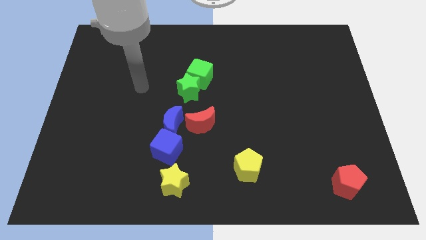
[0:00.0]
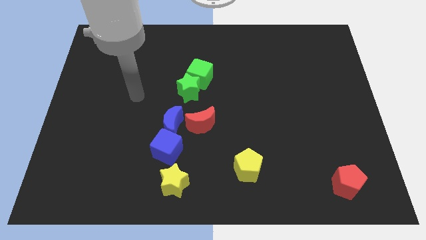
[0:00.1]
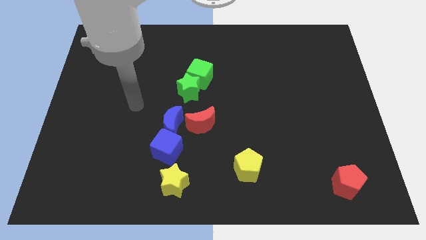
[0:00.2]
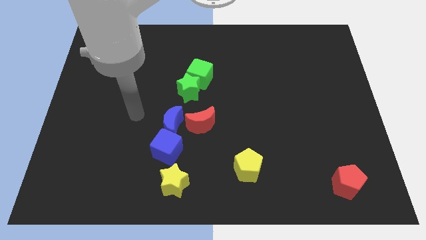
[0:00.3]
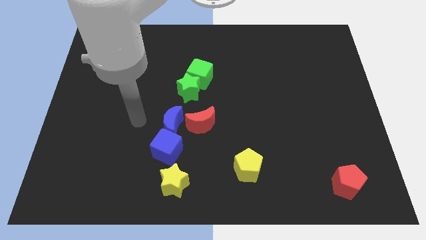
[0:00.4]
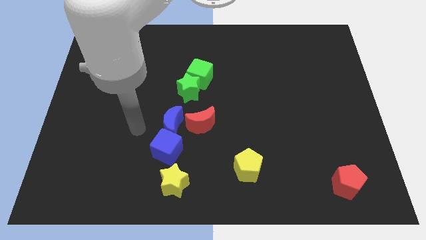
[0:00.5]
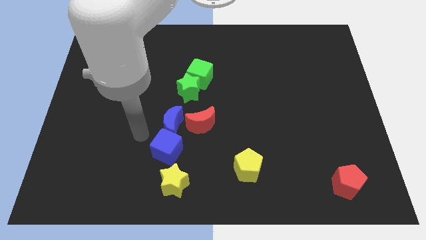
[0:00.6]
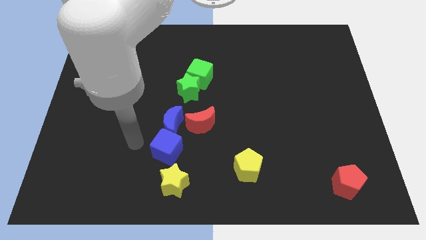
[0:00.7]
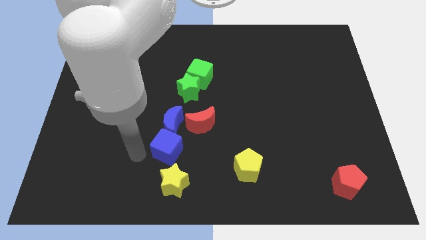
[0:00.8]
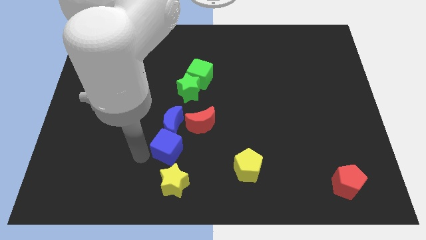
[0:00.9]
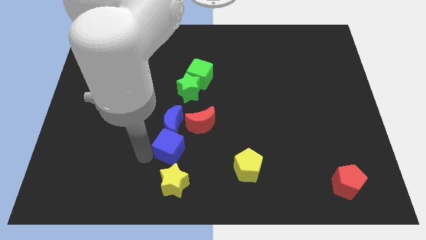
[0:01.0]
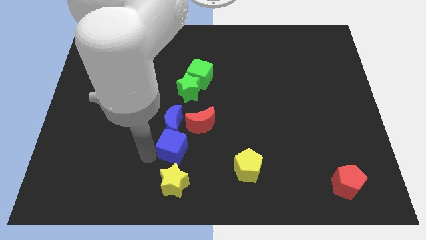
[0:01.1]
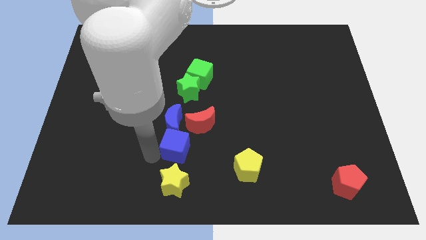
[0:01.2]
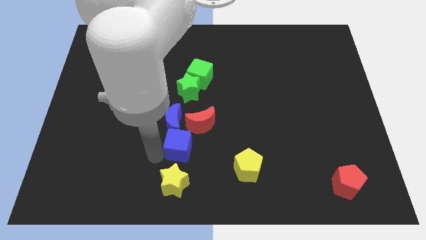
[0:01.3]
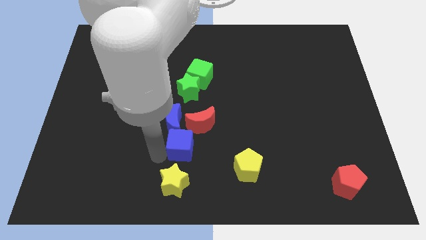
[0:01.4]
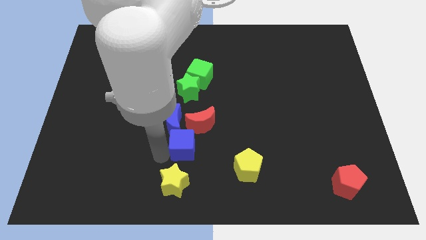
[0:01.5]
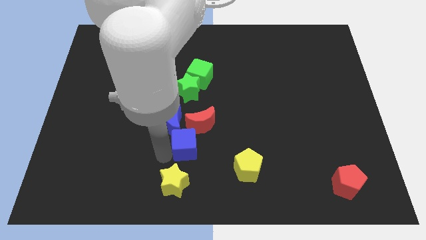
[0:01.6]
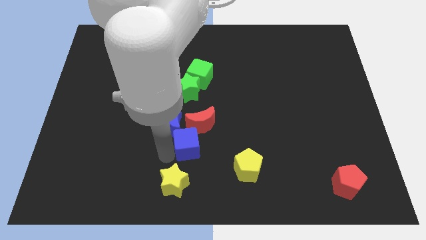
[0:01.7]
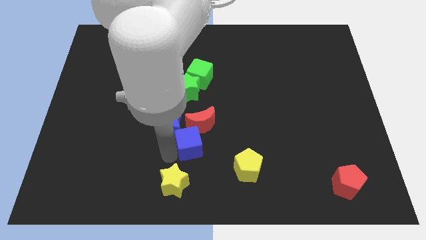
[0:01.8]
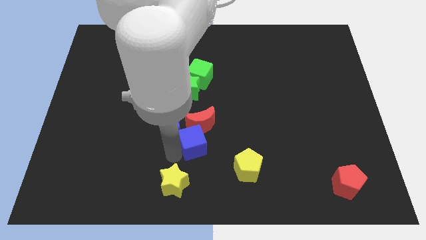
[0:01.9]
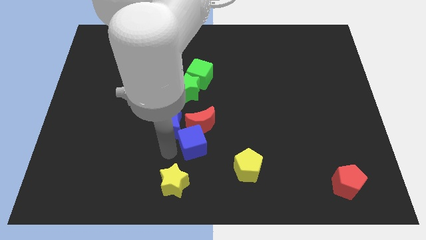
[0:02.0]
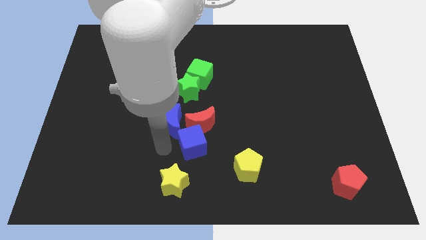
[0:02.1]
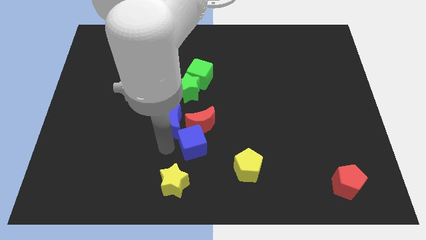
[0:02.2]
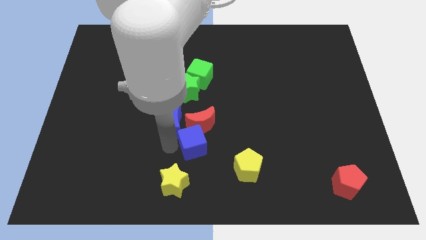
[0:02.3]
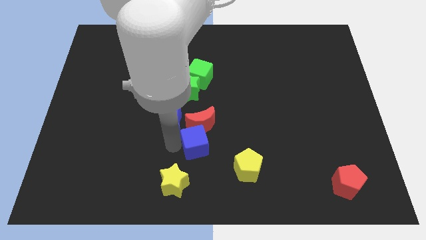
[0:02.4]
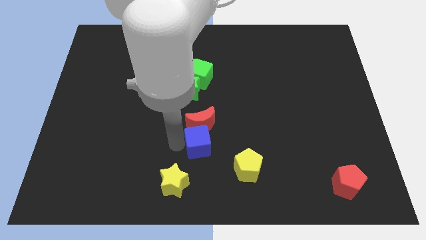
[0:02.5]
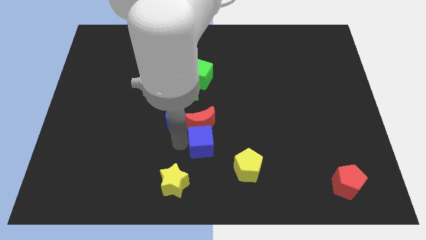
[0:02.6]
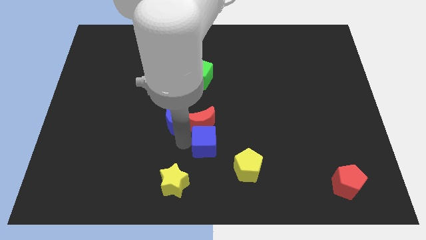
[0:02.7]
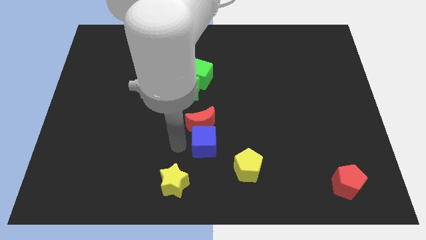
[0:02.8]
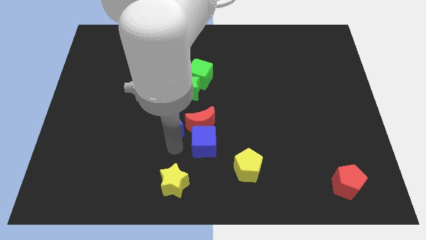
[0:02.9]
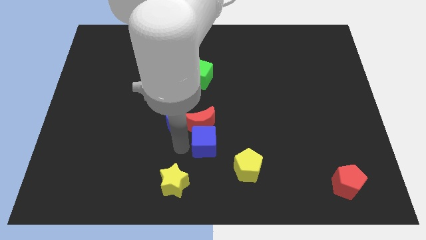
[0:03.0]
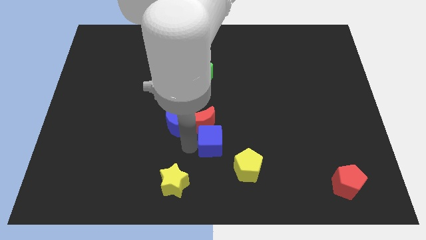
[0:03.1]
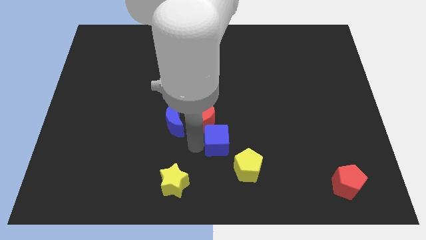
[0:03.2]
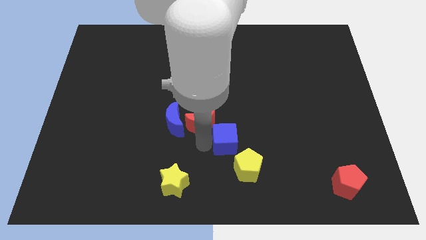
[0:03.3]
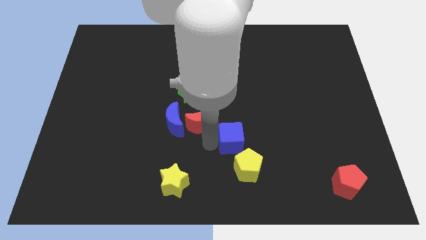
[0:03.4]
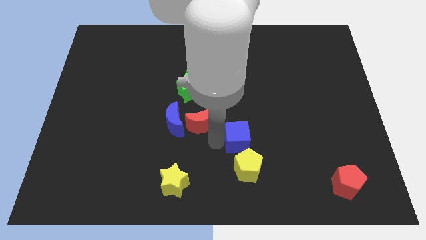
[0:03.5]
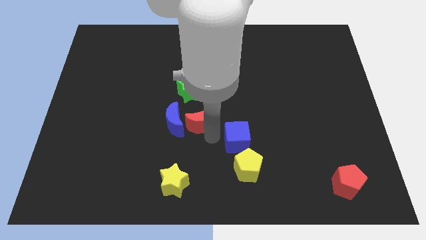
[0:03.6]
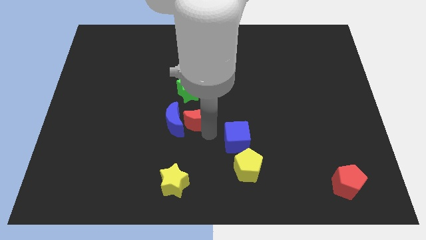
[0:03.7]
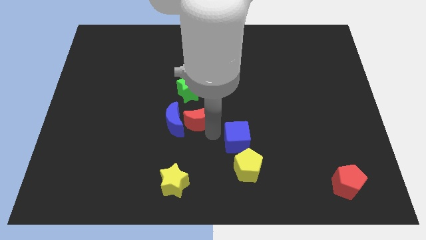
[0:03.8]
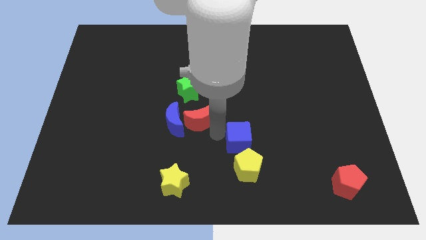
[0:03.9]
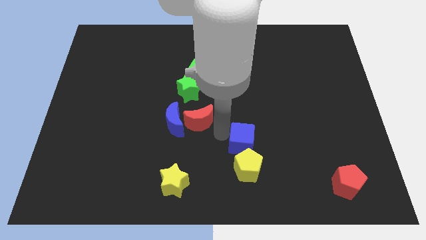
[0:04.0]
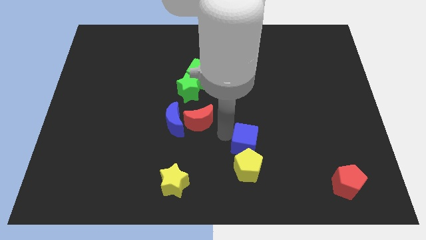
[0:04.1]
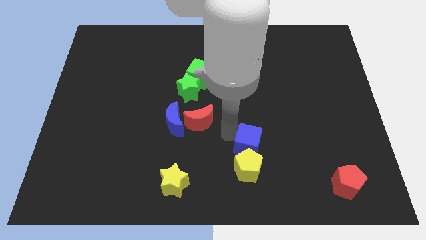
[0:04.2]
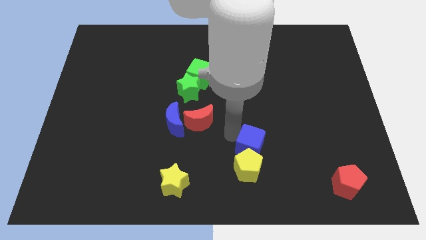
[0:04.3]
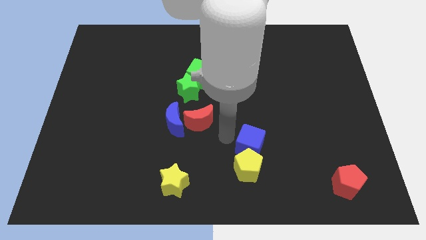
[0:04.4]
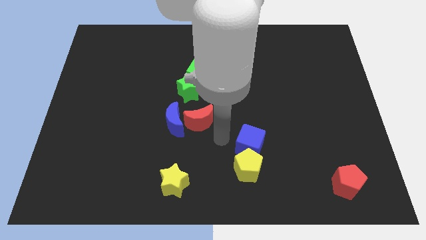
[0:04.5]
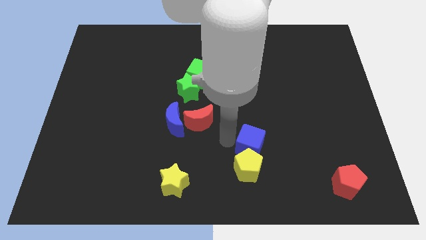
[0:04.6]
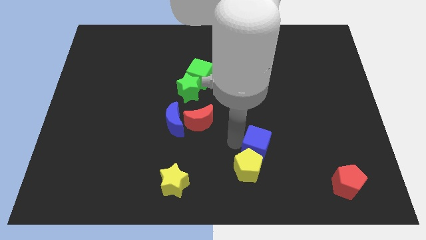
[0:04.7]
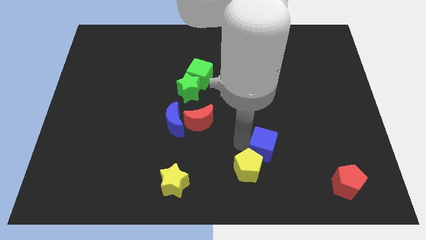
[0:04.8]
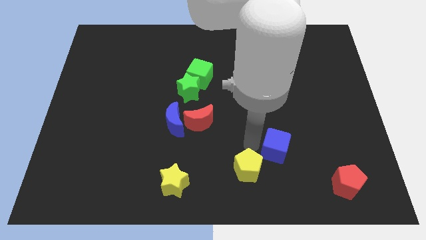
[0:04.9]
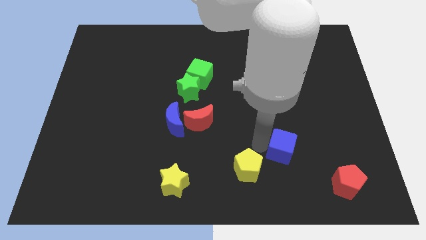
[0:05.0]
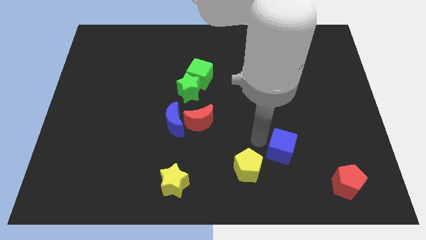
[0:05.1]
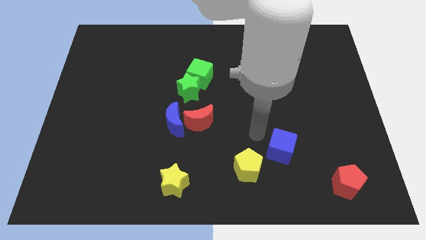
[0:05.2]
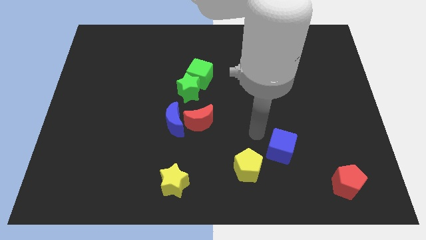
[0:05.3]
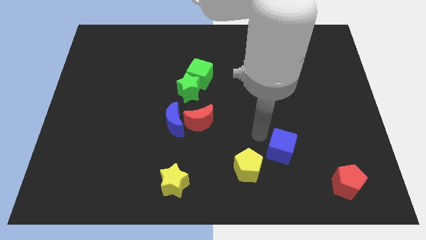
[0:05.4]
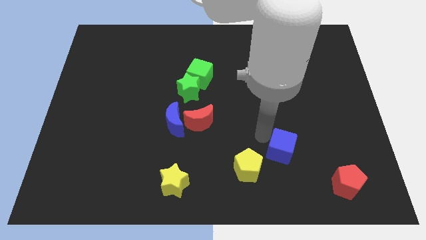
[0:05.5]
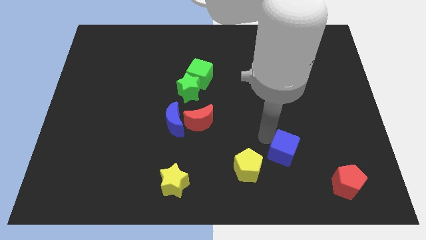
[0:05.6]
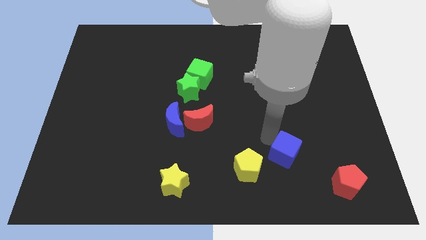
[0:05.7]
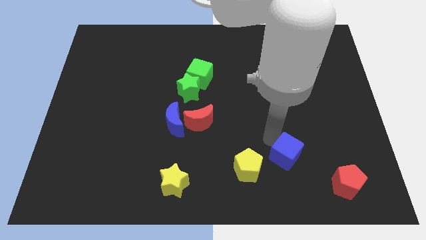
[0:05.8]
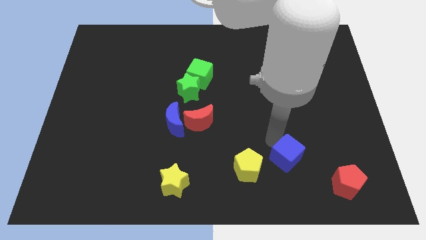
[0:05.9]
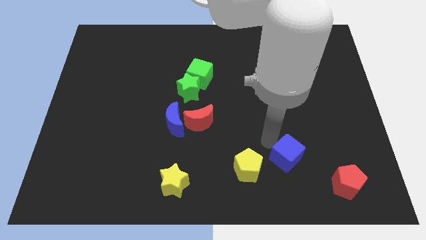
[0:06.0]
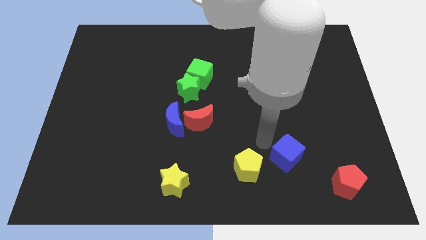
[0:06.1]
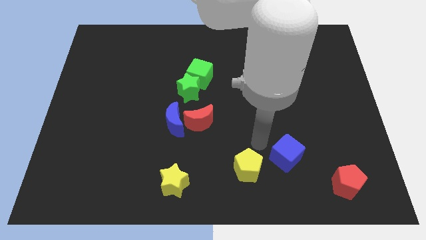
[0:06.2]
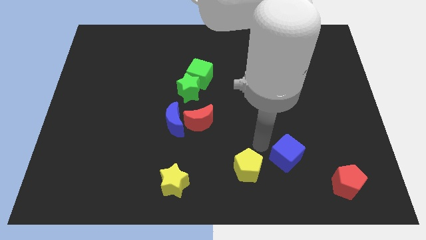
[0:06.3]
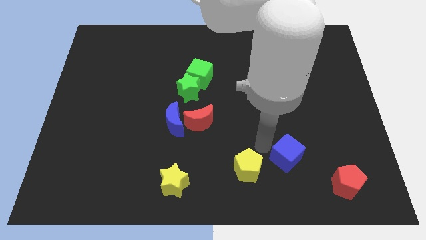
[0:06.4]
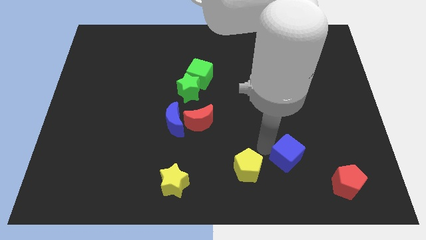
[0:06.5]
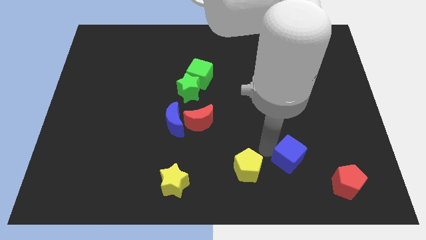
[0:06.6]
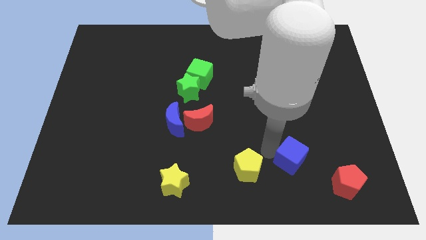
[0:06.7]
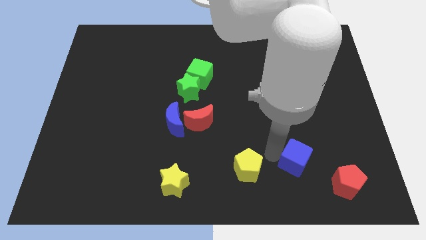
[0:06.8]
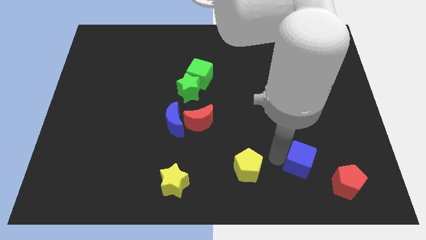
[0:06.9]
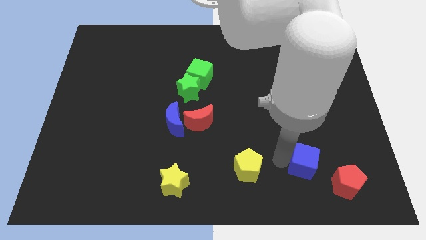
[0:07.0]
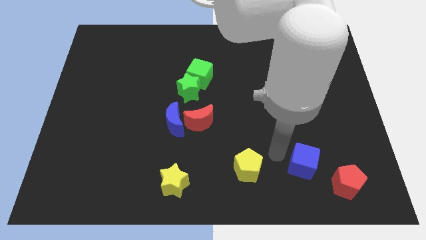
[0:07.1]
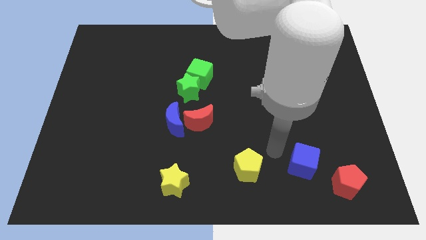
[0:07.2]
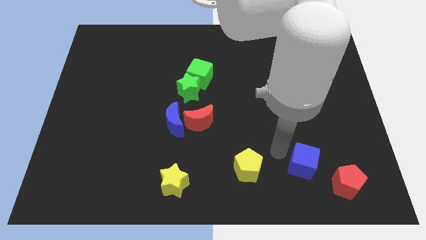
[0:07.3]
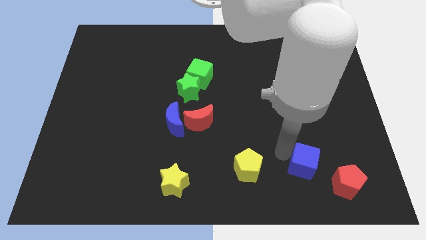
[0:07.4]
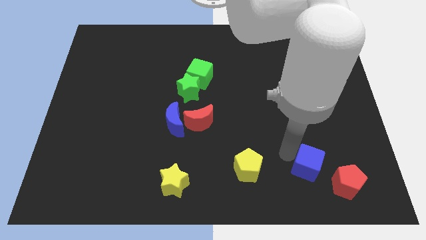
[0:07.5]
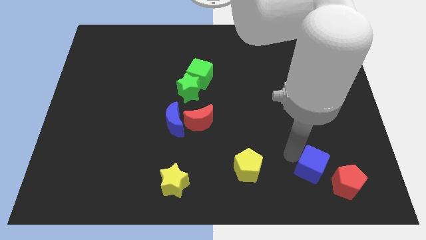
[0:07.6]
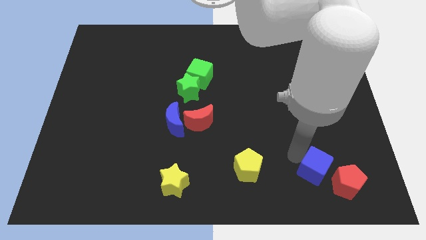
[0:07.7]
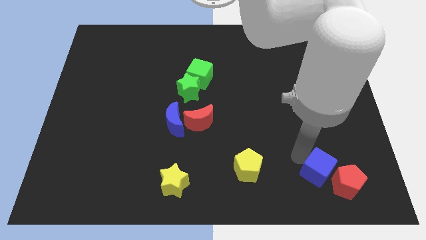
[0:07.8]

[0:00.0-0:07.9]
put the blue cube to the red pentagon
